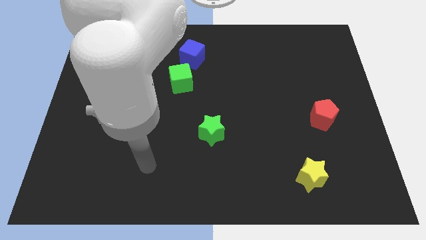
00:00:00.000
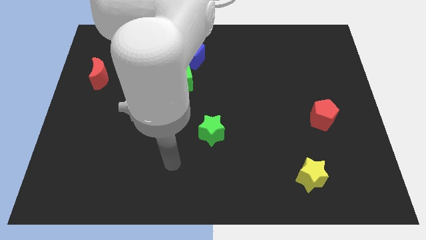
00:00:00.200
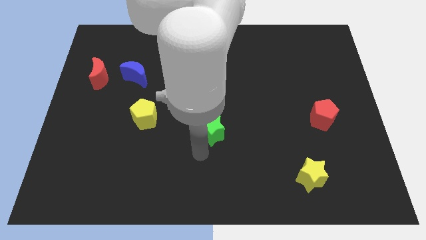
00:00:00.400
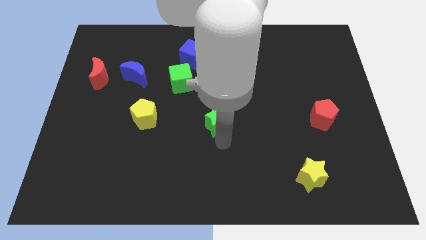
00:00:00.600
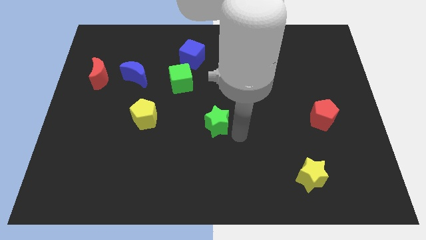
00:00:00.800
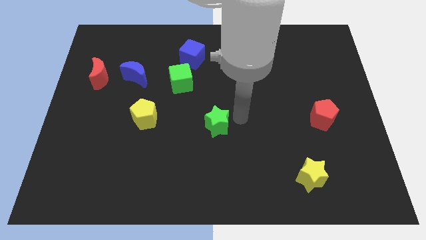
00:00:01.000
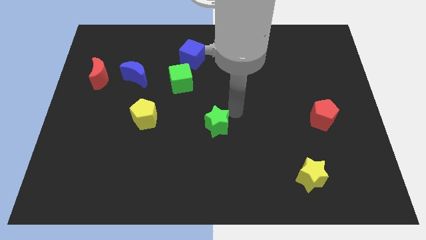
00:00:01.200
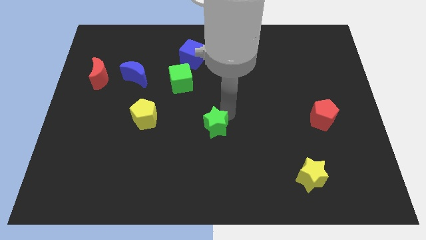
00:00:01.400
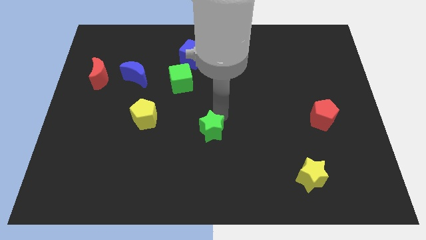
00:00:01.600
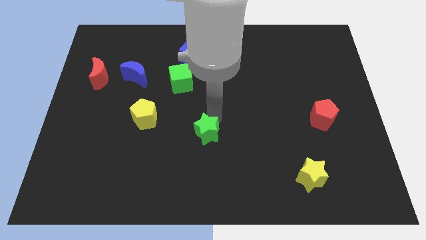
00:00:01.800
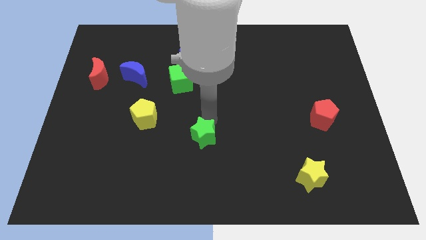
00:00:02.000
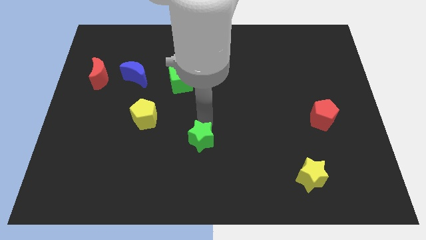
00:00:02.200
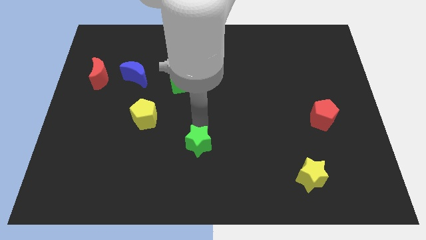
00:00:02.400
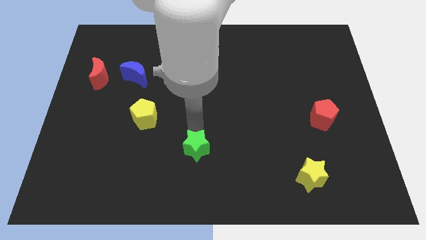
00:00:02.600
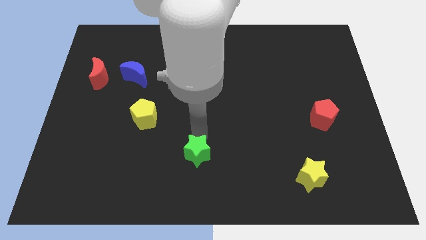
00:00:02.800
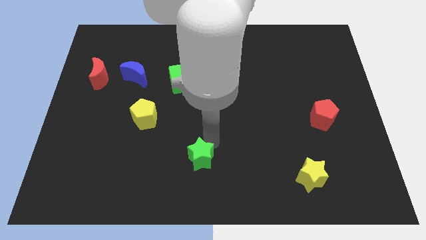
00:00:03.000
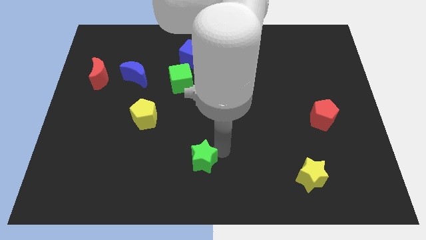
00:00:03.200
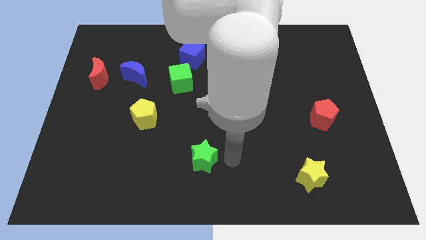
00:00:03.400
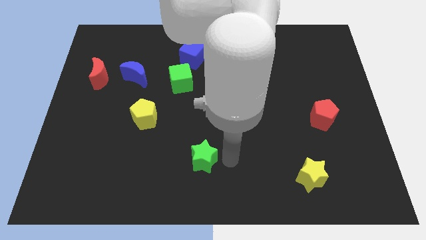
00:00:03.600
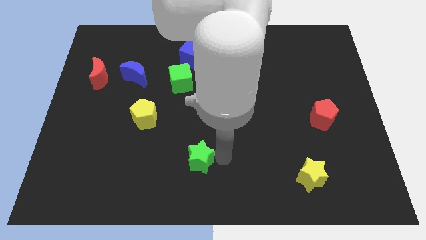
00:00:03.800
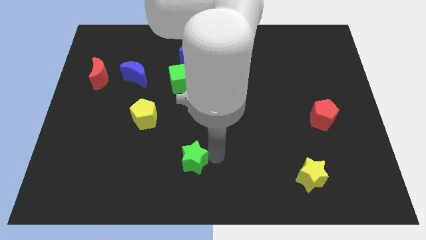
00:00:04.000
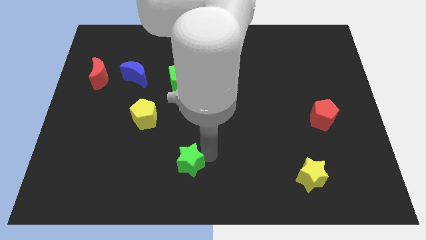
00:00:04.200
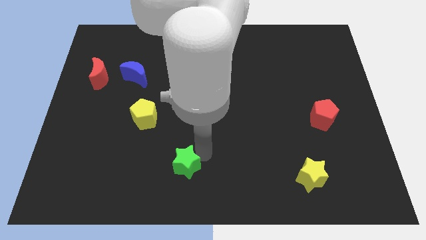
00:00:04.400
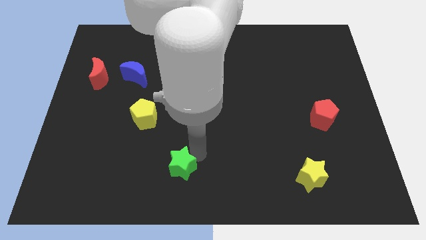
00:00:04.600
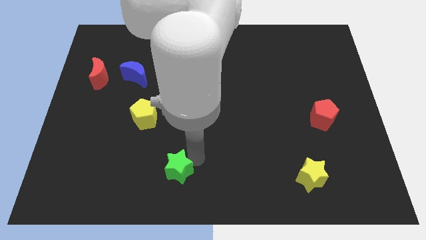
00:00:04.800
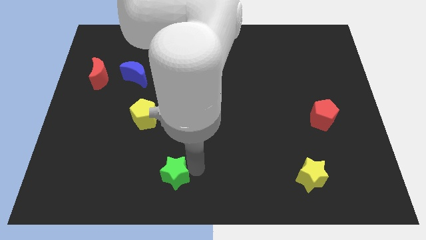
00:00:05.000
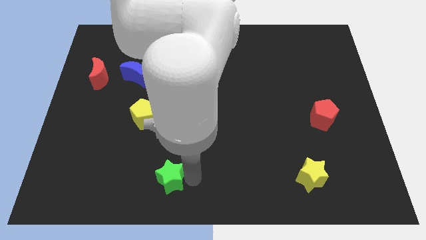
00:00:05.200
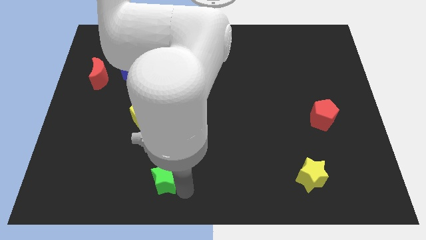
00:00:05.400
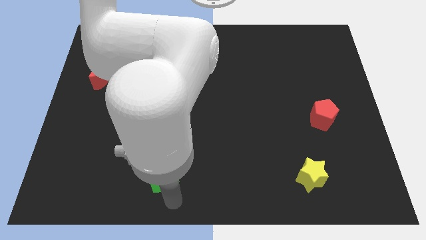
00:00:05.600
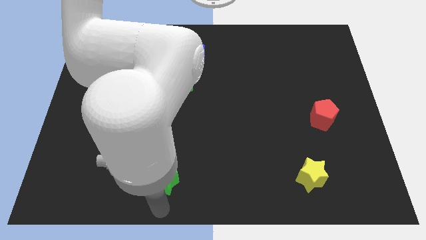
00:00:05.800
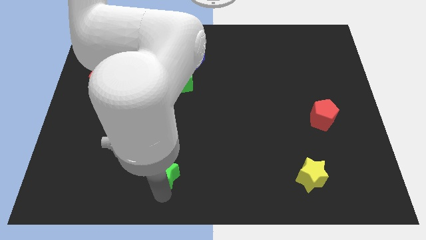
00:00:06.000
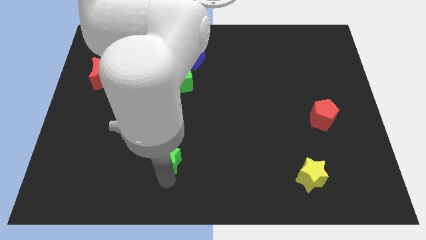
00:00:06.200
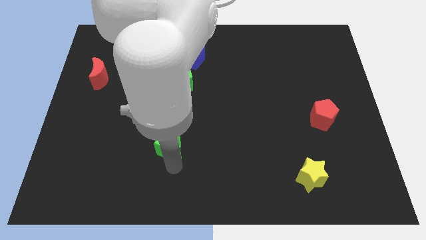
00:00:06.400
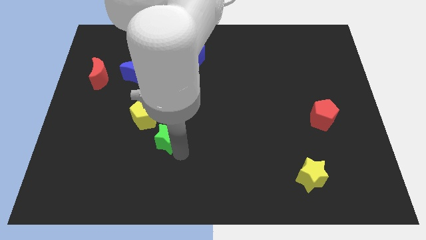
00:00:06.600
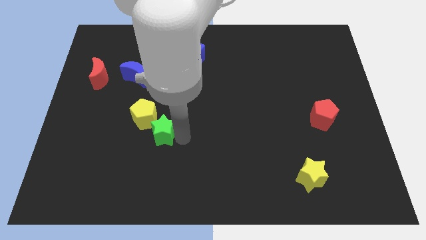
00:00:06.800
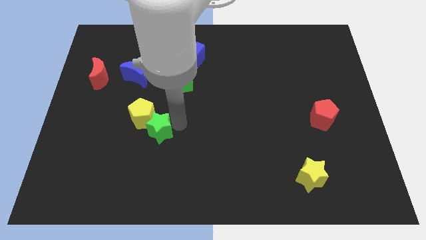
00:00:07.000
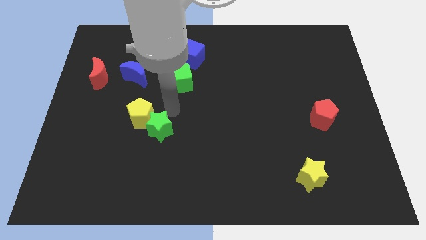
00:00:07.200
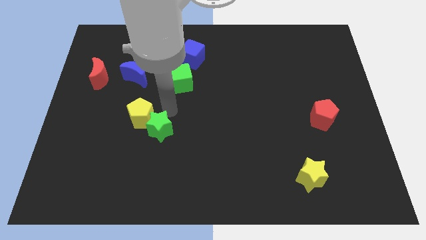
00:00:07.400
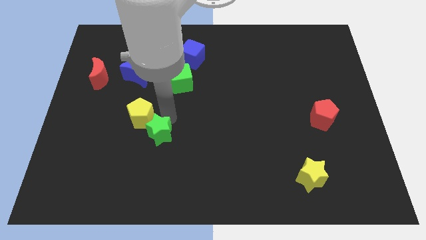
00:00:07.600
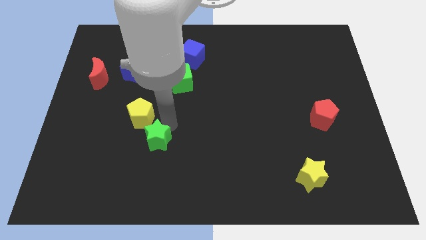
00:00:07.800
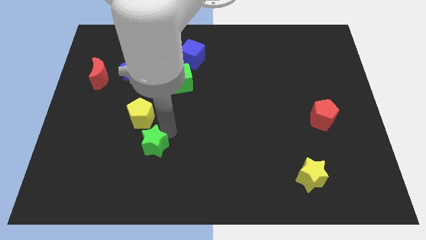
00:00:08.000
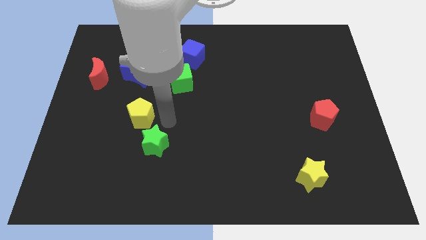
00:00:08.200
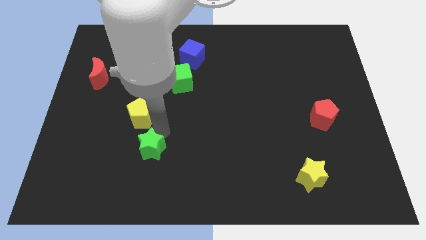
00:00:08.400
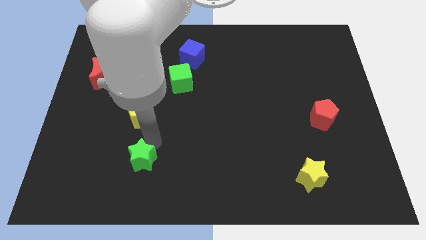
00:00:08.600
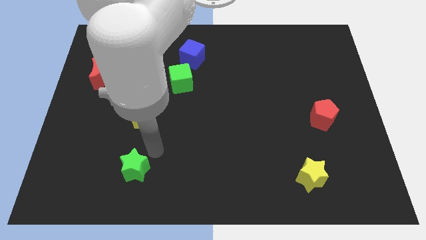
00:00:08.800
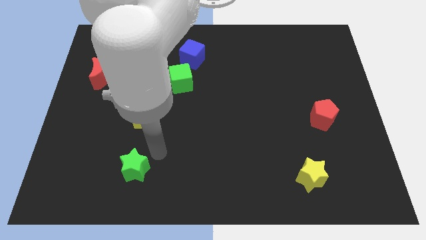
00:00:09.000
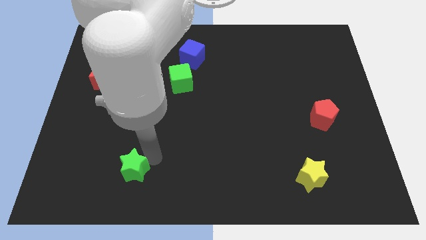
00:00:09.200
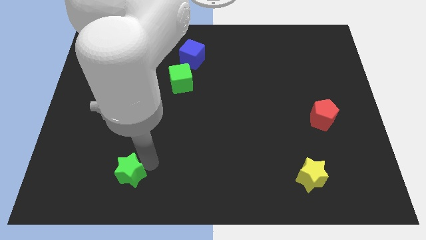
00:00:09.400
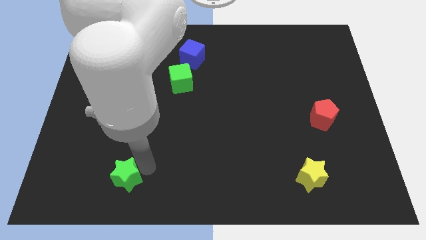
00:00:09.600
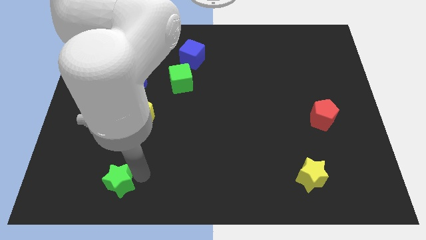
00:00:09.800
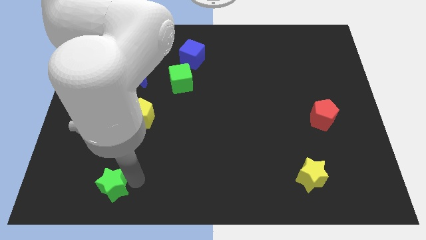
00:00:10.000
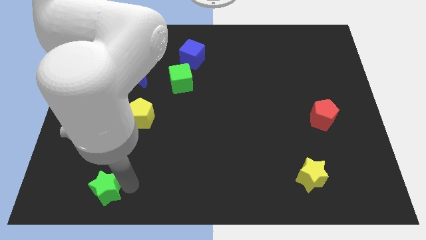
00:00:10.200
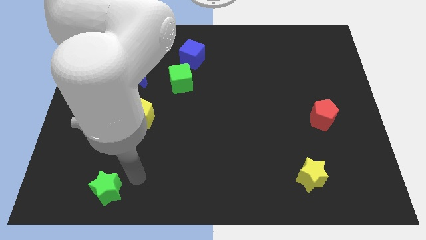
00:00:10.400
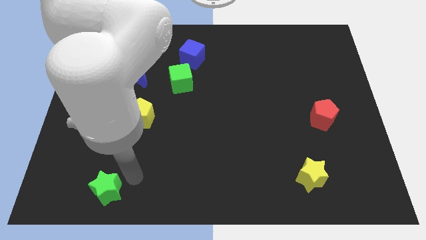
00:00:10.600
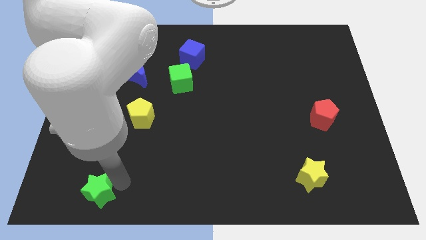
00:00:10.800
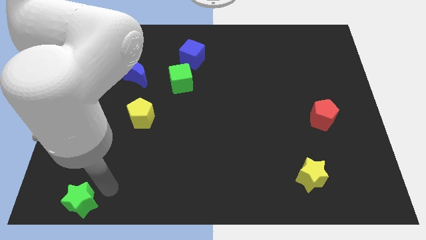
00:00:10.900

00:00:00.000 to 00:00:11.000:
move the green star to the bottom left corner
